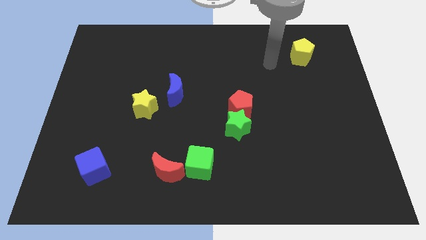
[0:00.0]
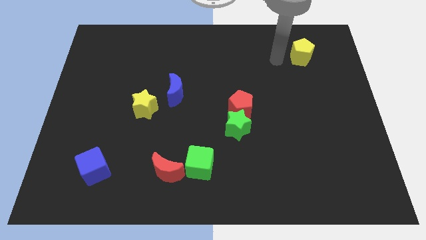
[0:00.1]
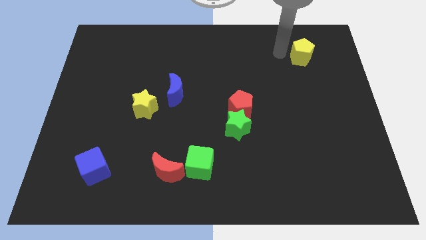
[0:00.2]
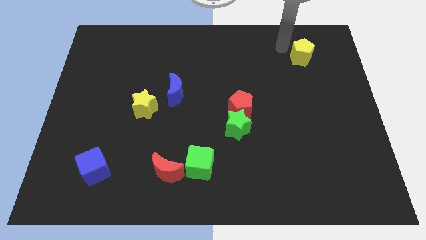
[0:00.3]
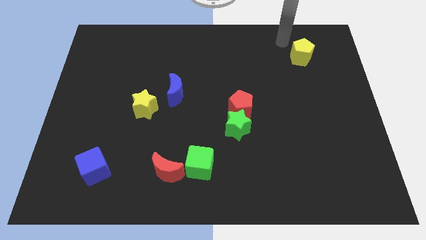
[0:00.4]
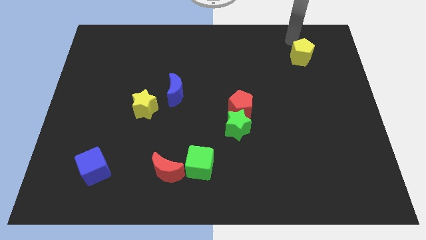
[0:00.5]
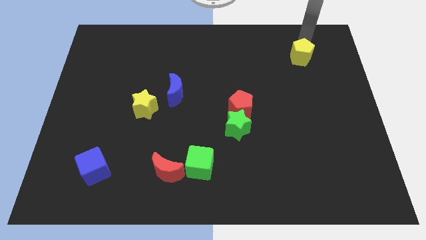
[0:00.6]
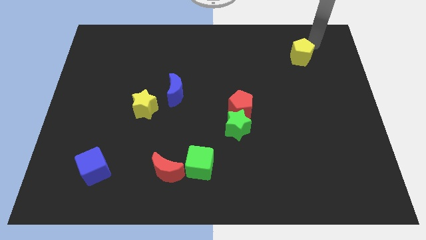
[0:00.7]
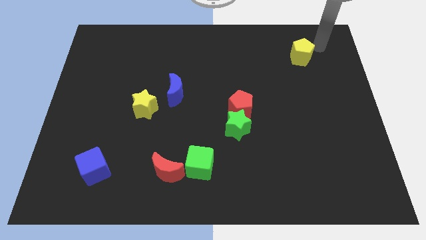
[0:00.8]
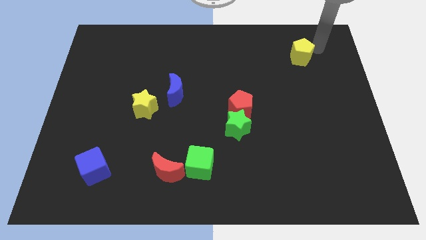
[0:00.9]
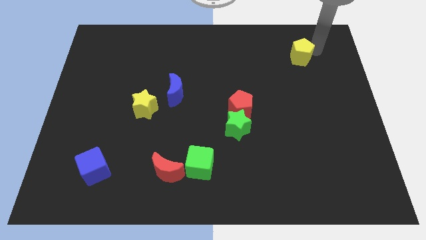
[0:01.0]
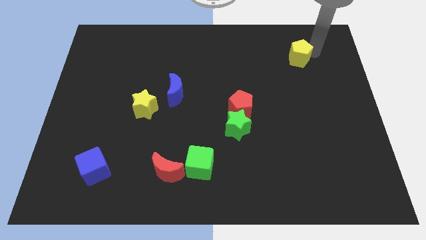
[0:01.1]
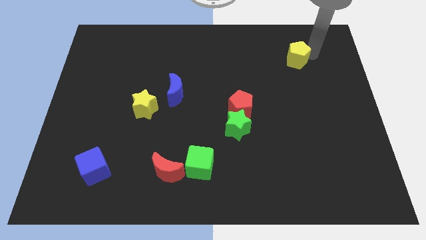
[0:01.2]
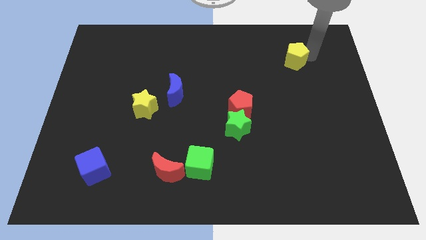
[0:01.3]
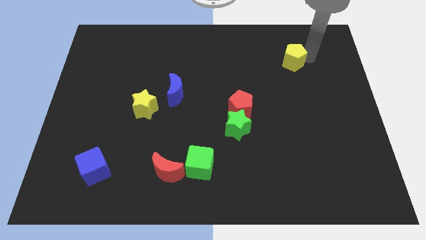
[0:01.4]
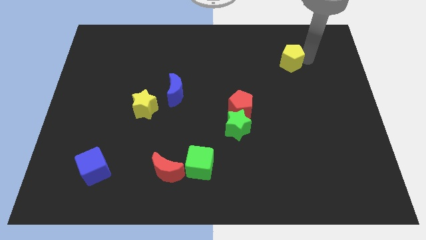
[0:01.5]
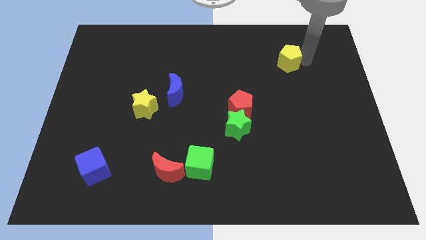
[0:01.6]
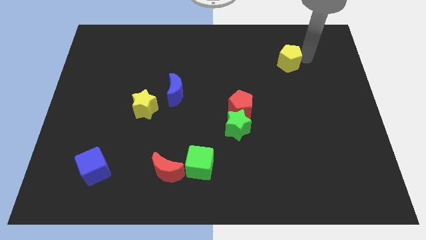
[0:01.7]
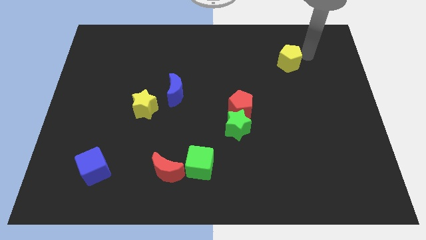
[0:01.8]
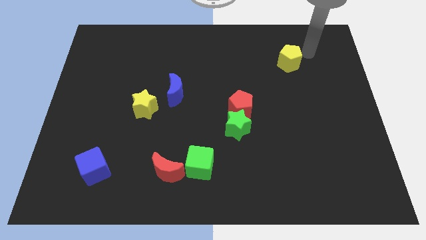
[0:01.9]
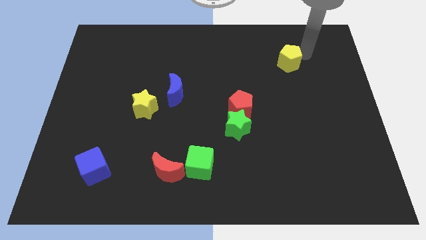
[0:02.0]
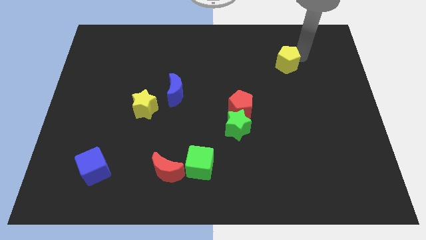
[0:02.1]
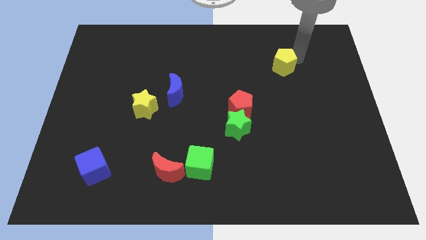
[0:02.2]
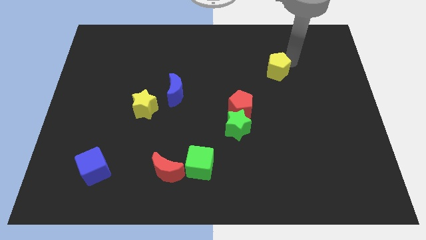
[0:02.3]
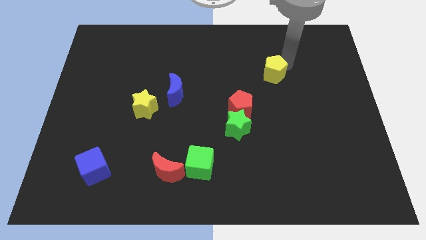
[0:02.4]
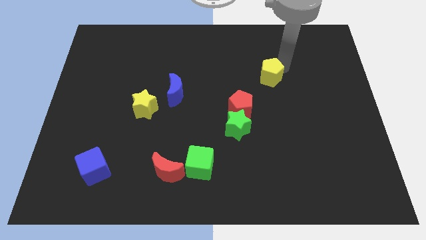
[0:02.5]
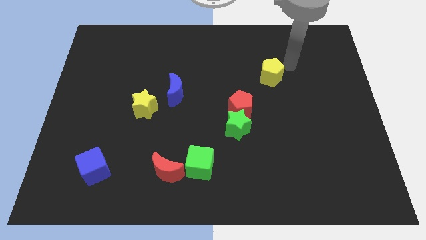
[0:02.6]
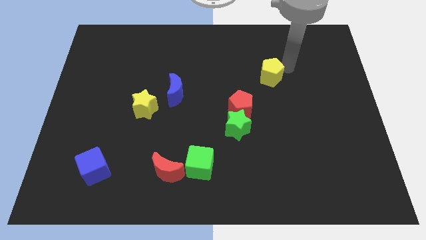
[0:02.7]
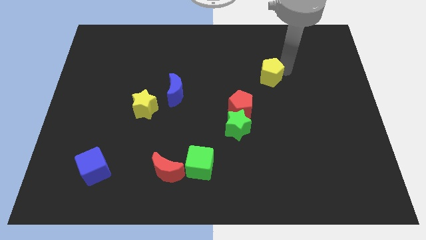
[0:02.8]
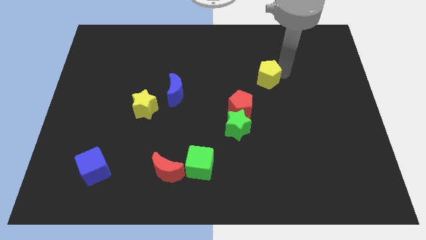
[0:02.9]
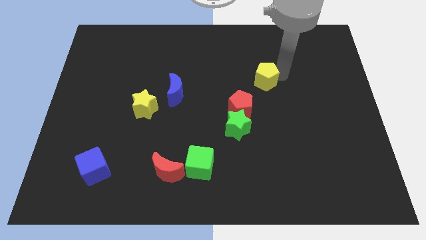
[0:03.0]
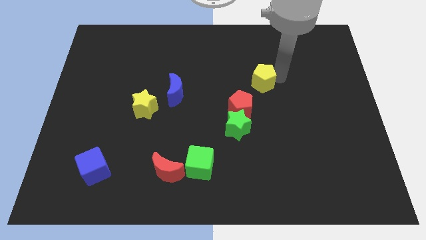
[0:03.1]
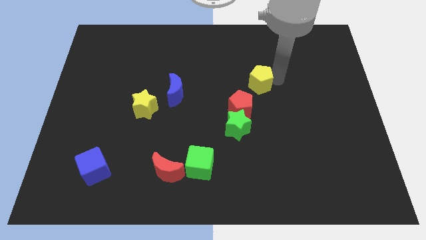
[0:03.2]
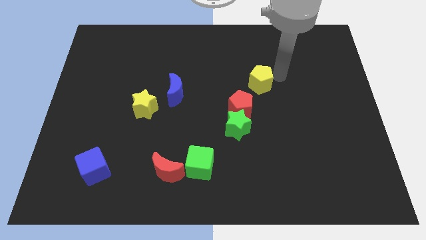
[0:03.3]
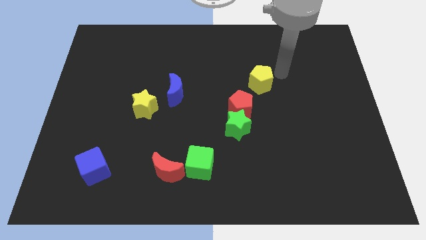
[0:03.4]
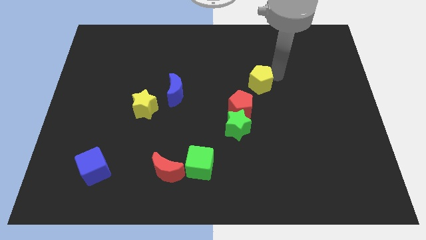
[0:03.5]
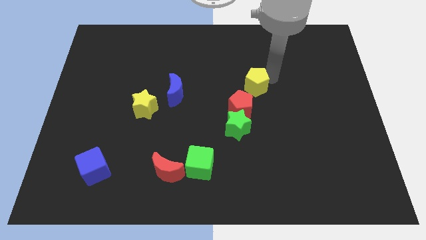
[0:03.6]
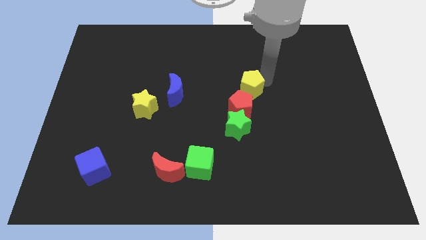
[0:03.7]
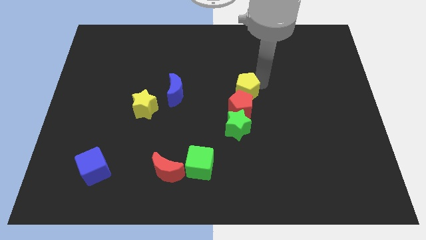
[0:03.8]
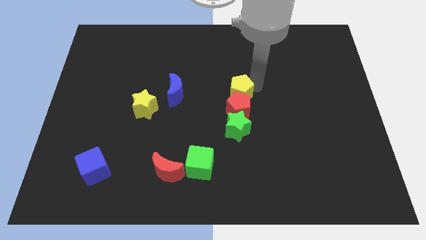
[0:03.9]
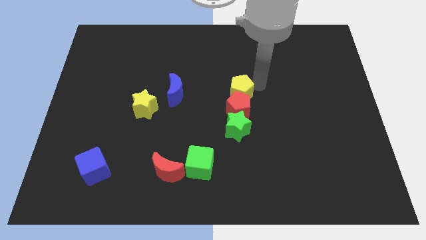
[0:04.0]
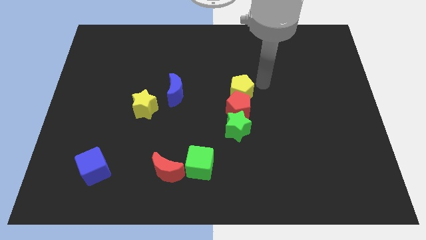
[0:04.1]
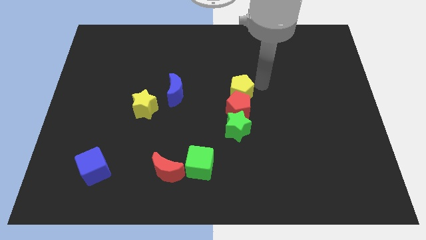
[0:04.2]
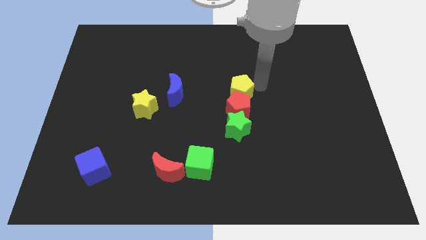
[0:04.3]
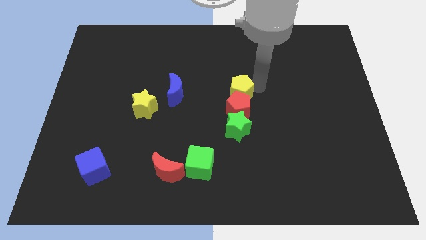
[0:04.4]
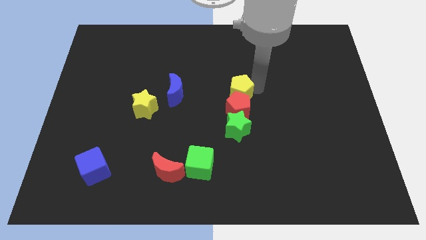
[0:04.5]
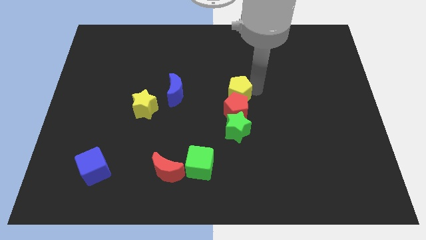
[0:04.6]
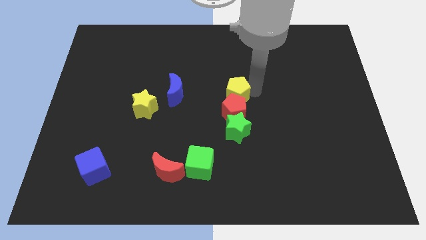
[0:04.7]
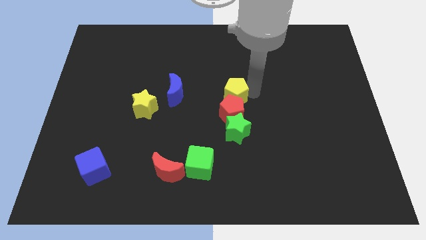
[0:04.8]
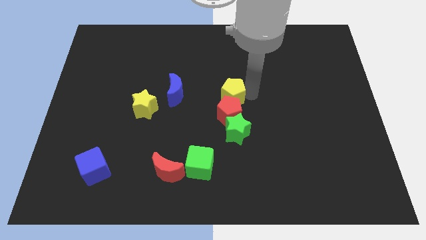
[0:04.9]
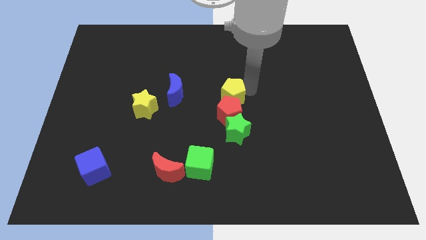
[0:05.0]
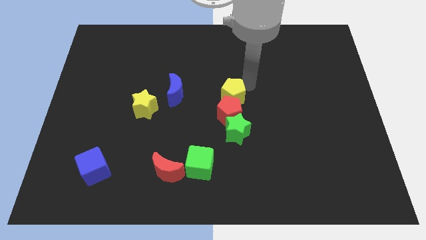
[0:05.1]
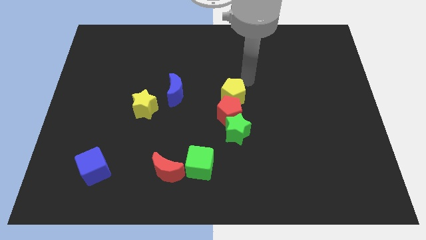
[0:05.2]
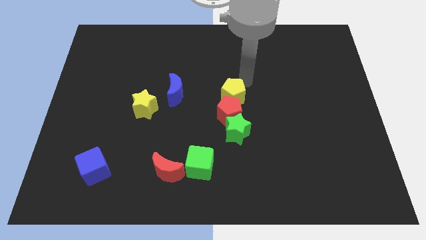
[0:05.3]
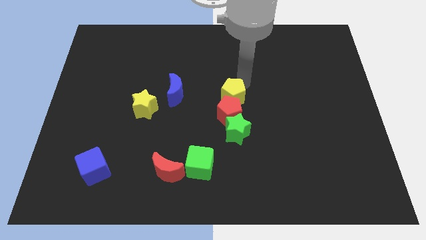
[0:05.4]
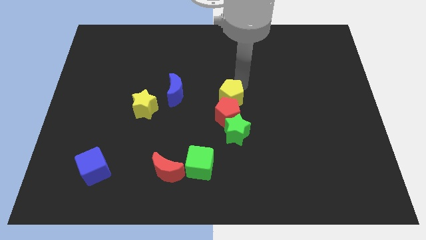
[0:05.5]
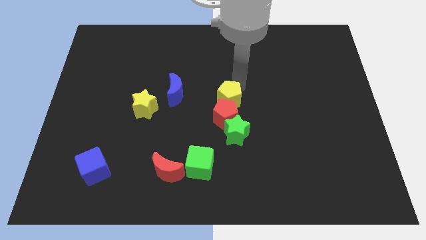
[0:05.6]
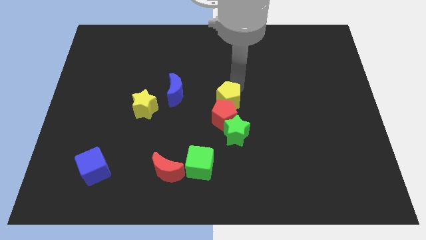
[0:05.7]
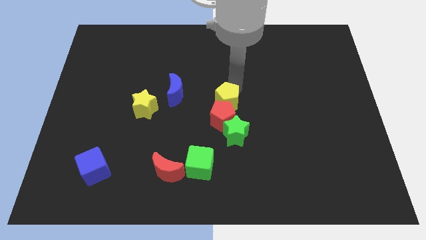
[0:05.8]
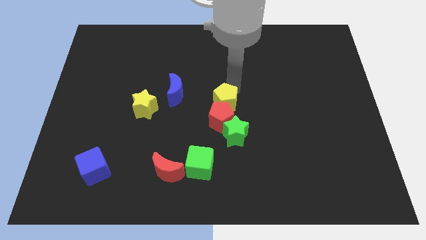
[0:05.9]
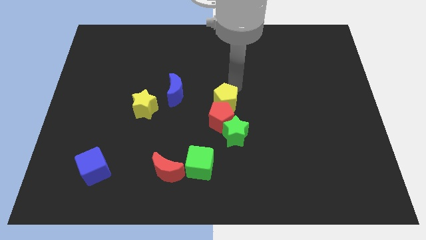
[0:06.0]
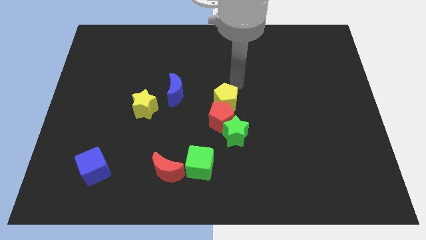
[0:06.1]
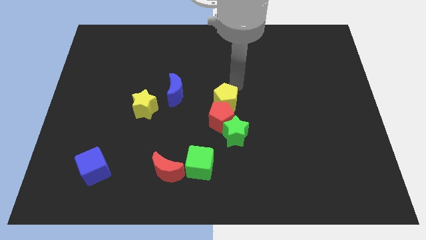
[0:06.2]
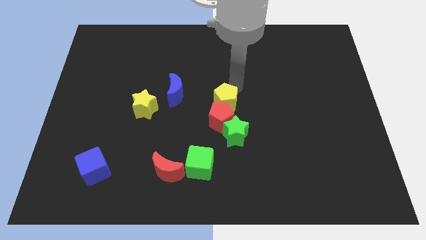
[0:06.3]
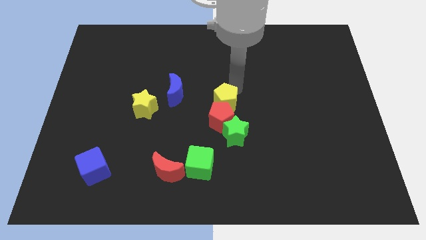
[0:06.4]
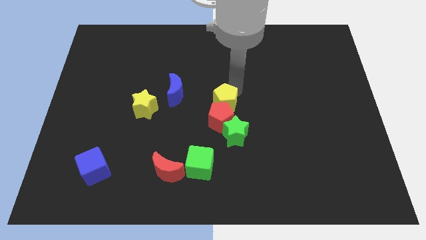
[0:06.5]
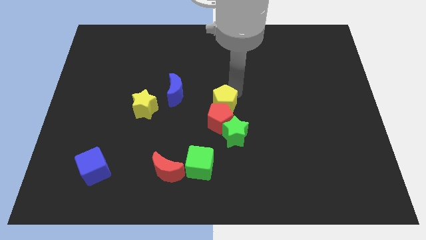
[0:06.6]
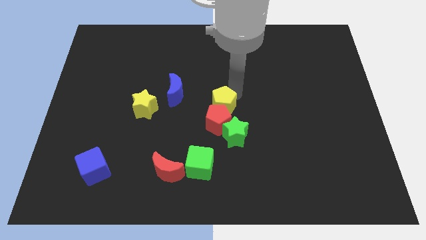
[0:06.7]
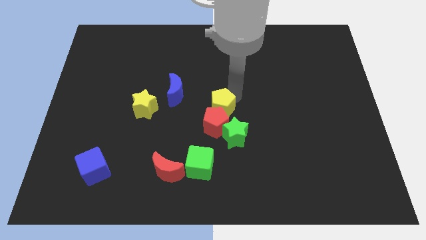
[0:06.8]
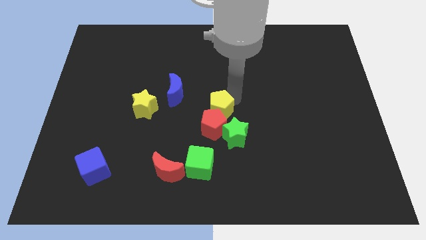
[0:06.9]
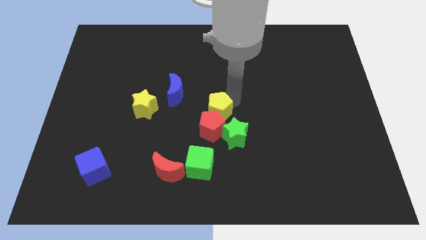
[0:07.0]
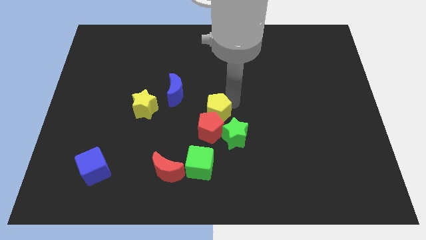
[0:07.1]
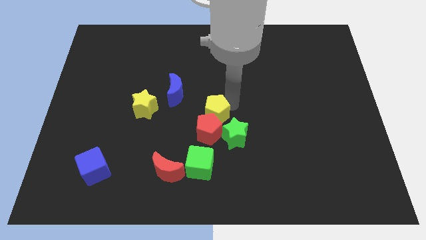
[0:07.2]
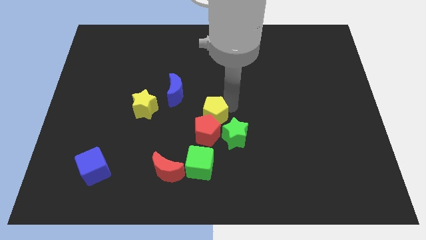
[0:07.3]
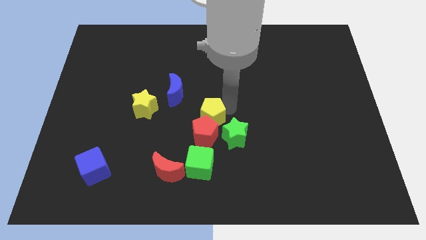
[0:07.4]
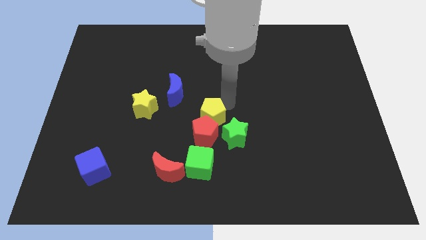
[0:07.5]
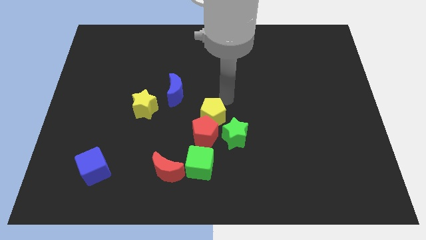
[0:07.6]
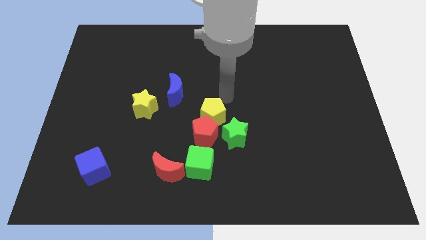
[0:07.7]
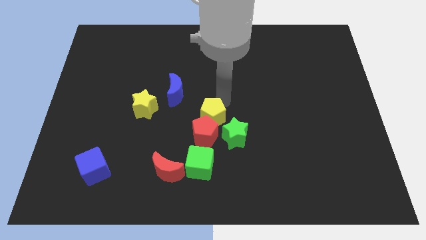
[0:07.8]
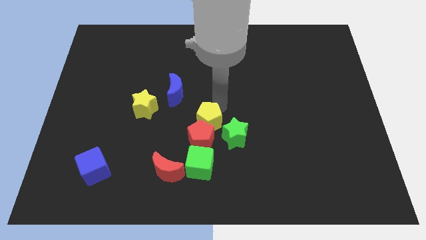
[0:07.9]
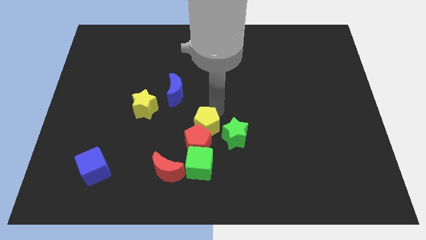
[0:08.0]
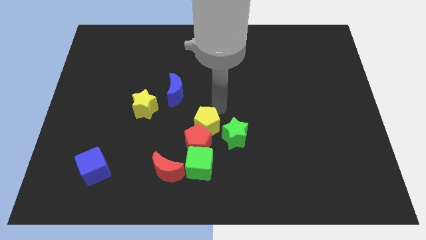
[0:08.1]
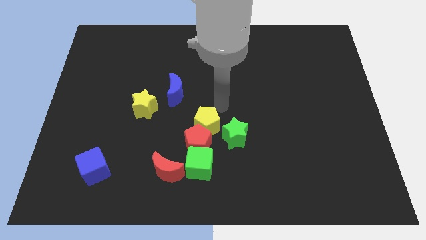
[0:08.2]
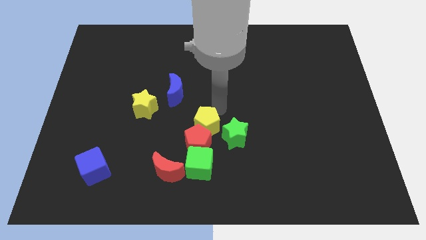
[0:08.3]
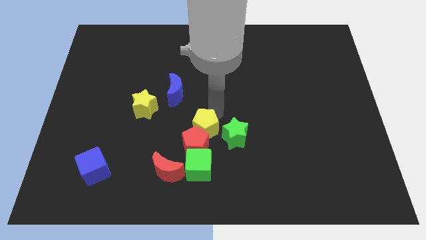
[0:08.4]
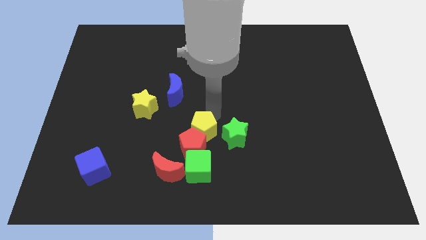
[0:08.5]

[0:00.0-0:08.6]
push the yellow pentagon to the top right side of the red moon
